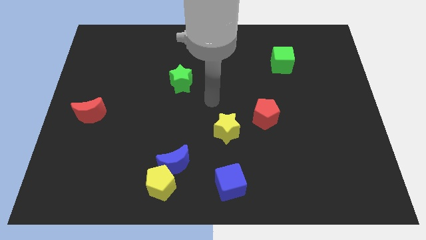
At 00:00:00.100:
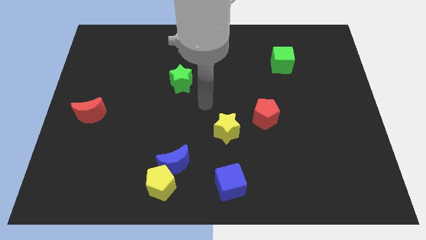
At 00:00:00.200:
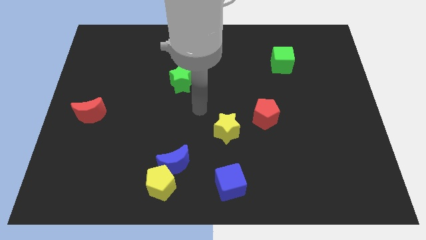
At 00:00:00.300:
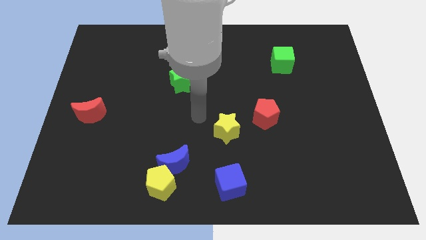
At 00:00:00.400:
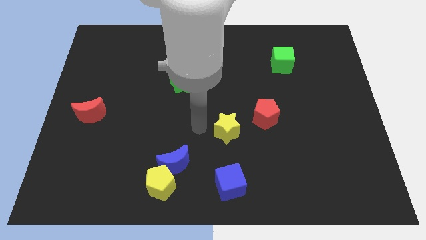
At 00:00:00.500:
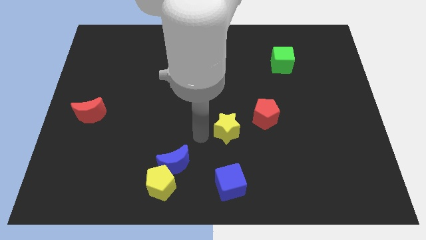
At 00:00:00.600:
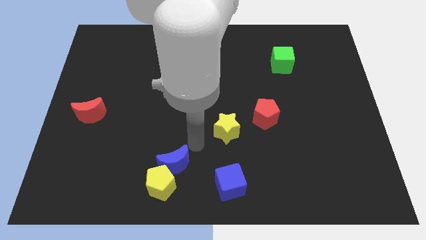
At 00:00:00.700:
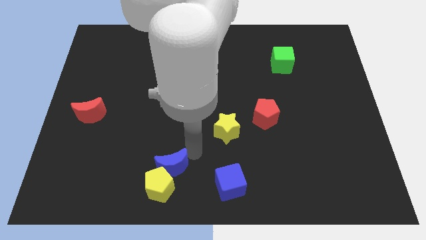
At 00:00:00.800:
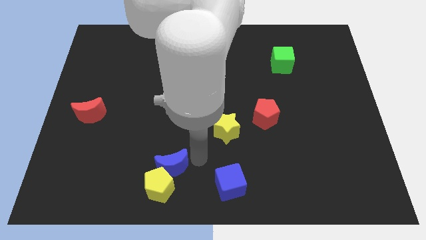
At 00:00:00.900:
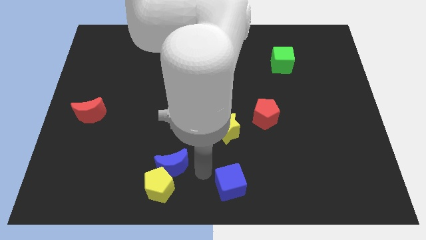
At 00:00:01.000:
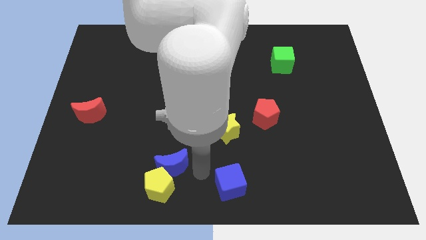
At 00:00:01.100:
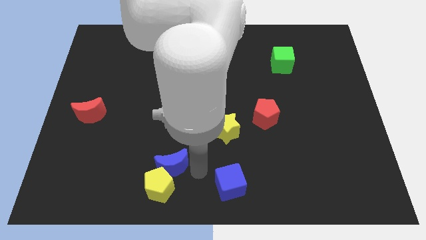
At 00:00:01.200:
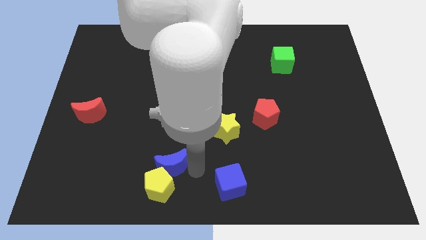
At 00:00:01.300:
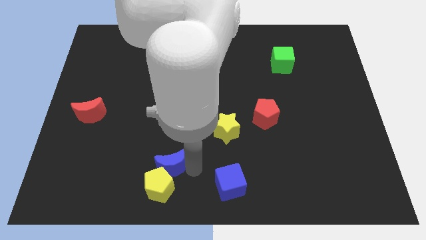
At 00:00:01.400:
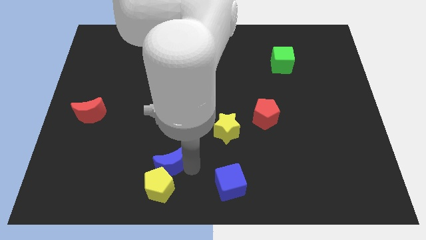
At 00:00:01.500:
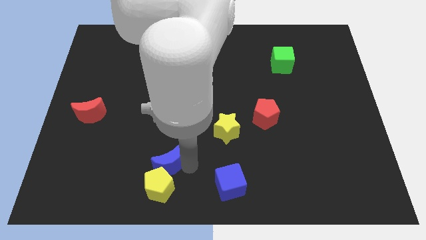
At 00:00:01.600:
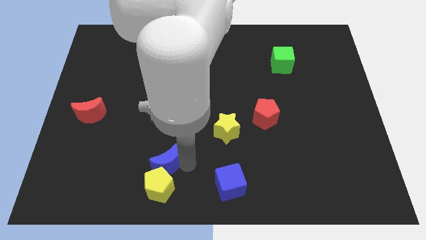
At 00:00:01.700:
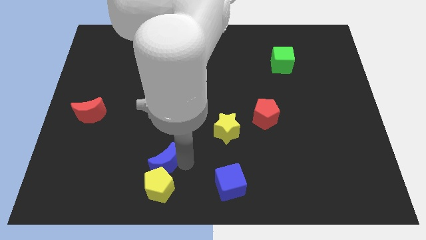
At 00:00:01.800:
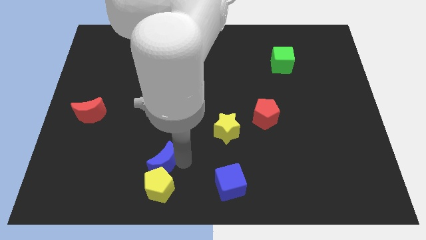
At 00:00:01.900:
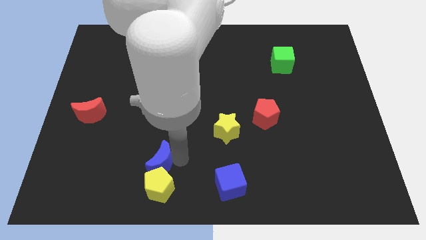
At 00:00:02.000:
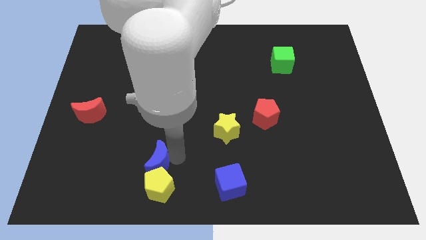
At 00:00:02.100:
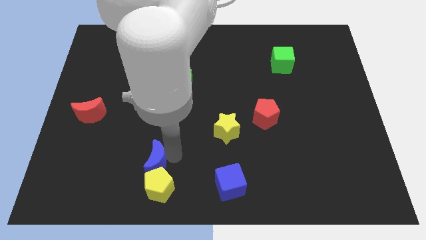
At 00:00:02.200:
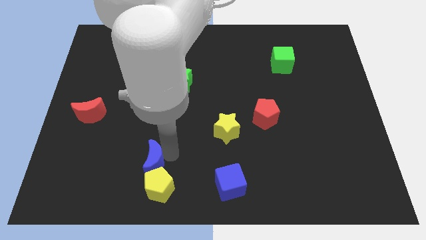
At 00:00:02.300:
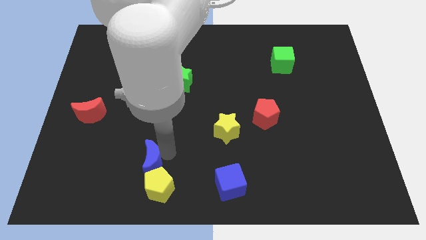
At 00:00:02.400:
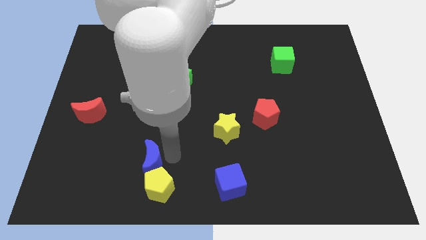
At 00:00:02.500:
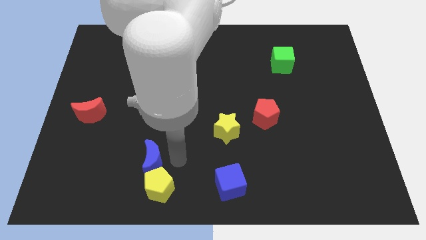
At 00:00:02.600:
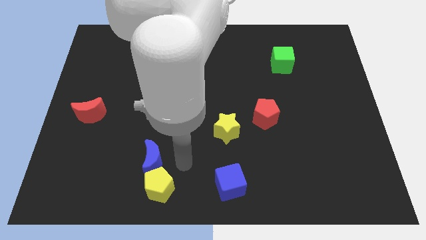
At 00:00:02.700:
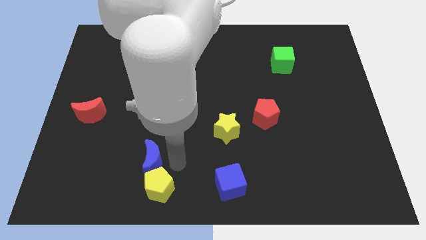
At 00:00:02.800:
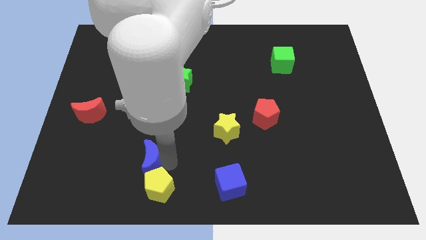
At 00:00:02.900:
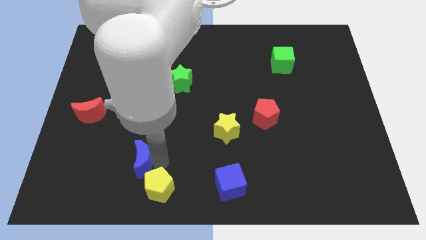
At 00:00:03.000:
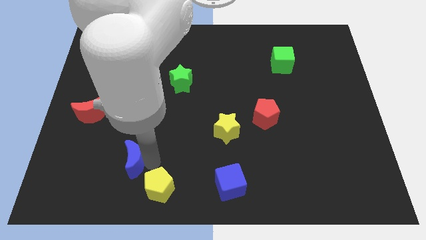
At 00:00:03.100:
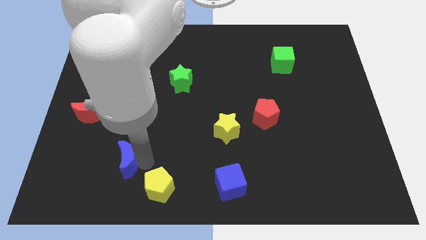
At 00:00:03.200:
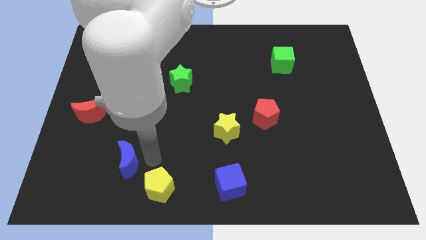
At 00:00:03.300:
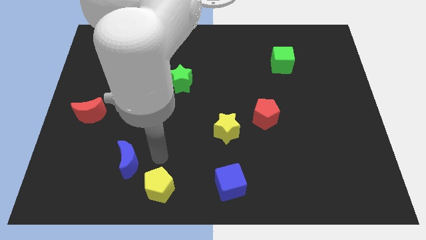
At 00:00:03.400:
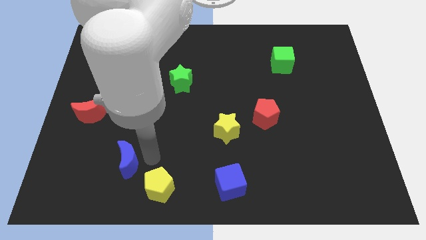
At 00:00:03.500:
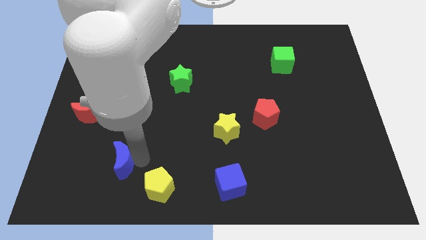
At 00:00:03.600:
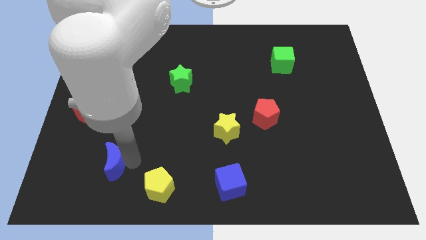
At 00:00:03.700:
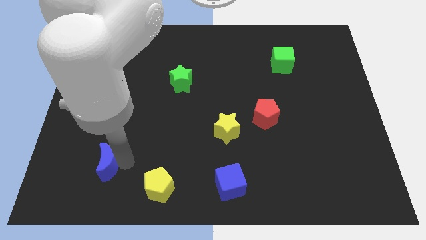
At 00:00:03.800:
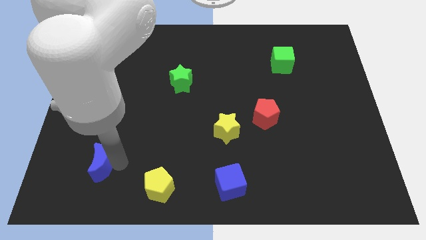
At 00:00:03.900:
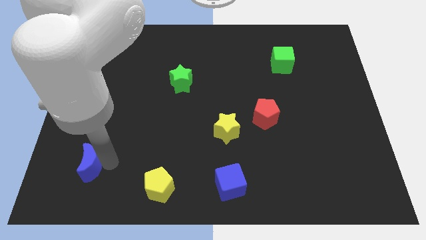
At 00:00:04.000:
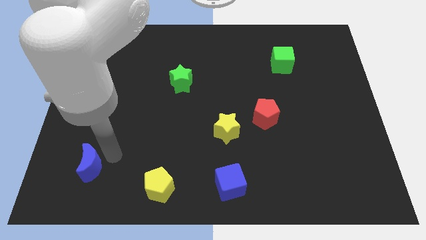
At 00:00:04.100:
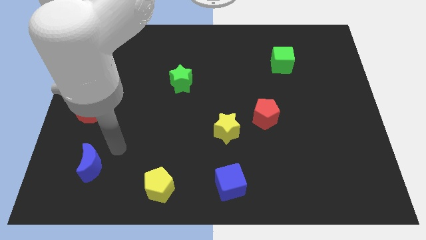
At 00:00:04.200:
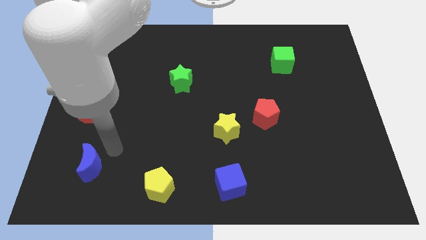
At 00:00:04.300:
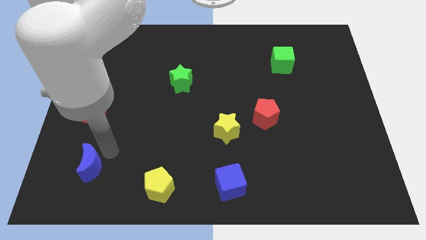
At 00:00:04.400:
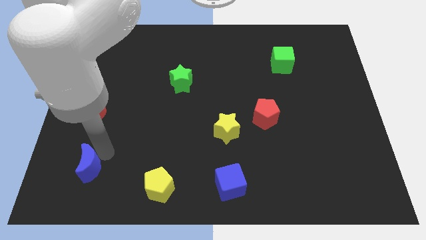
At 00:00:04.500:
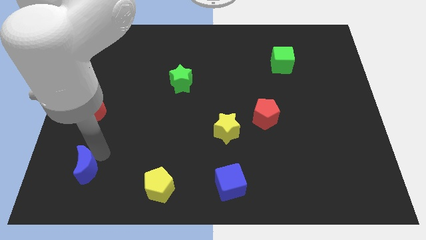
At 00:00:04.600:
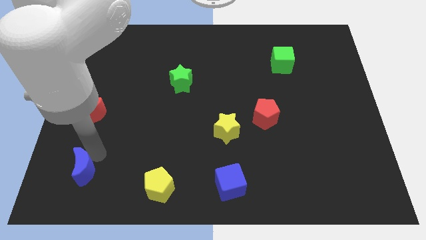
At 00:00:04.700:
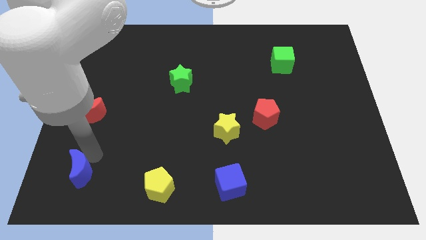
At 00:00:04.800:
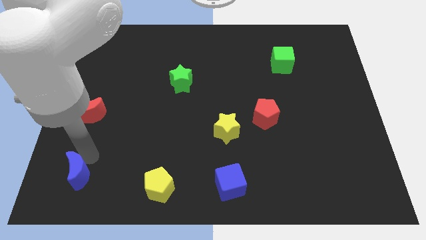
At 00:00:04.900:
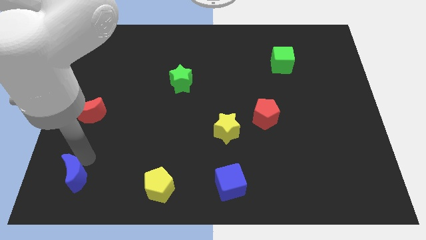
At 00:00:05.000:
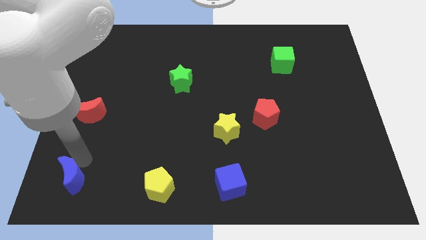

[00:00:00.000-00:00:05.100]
put the blue moon to the bottom left of the board

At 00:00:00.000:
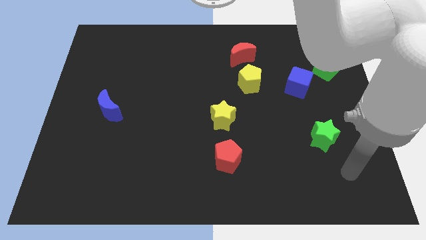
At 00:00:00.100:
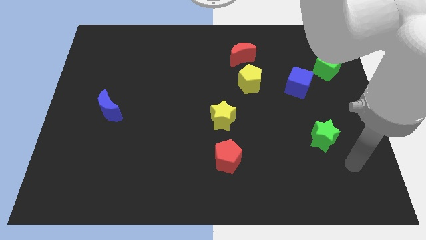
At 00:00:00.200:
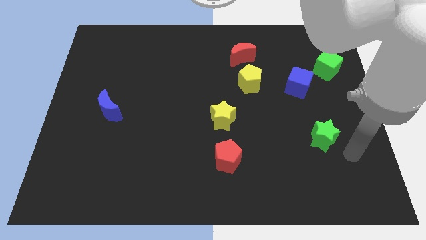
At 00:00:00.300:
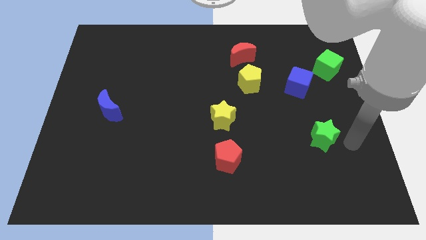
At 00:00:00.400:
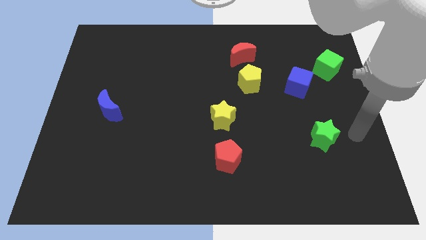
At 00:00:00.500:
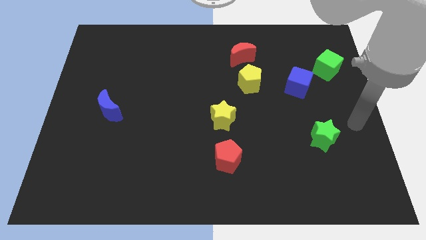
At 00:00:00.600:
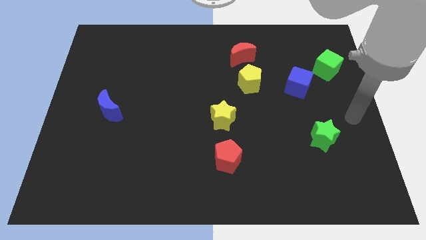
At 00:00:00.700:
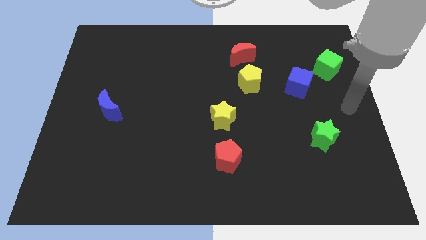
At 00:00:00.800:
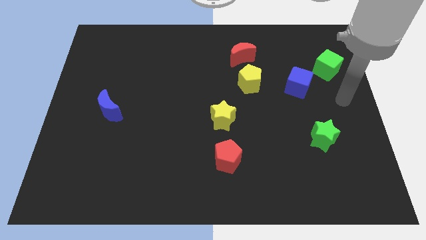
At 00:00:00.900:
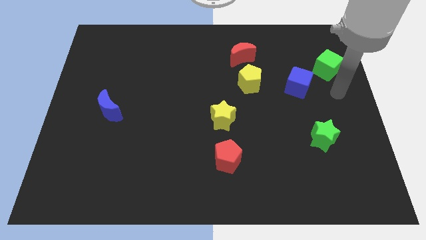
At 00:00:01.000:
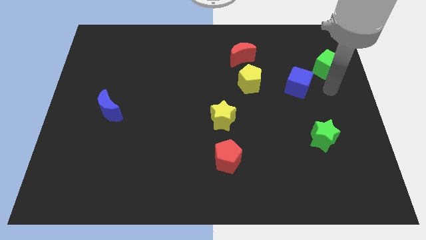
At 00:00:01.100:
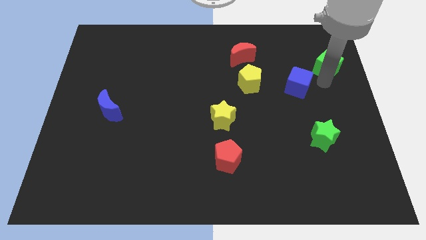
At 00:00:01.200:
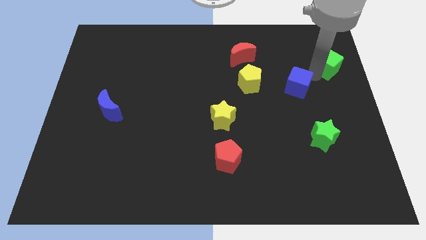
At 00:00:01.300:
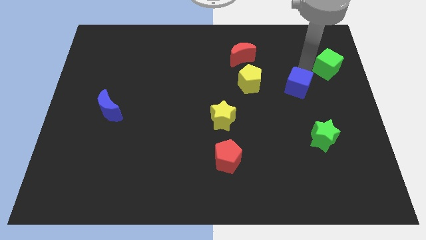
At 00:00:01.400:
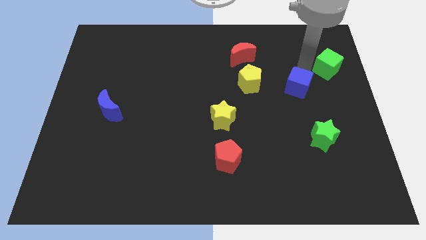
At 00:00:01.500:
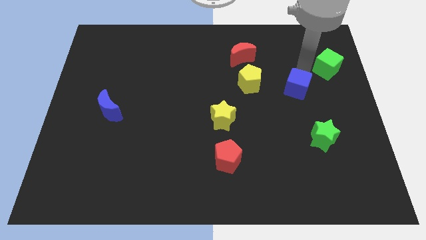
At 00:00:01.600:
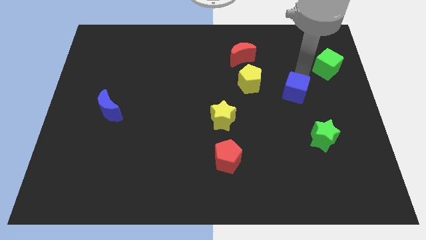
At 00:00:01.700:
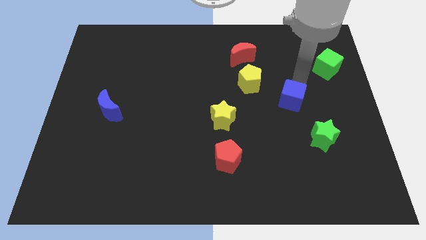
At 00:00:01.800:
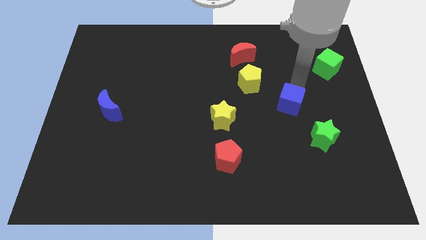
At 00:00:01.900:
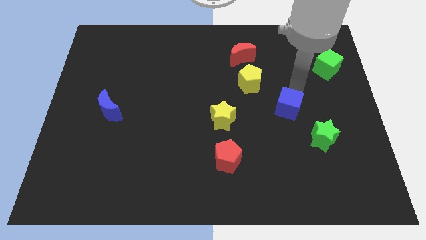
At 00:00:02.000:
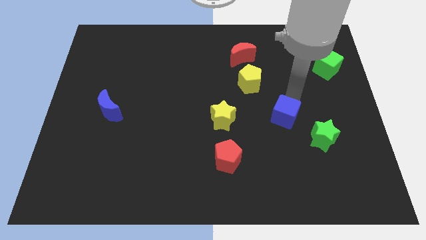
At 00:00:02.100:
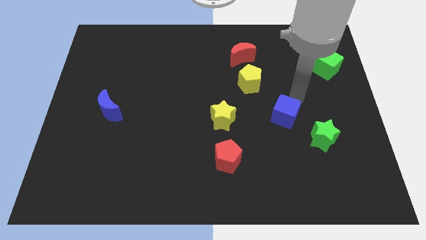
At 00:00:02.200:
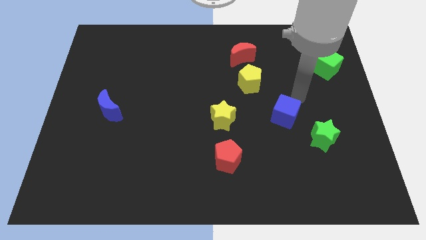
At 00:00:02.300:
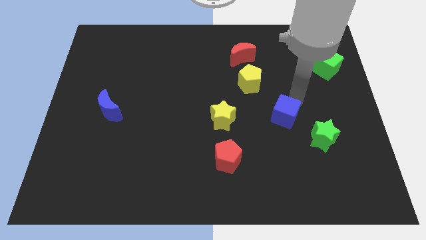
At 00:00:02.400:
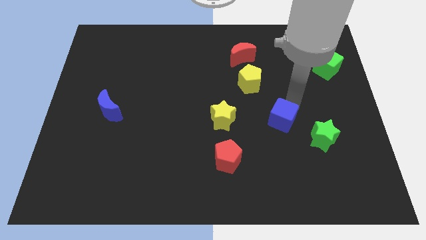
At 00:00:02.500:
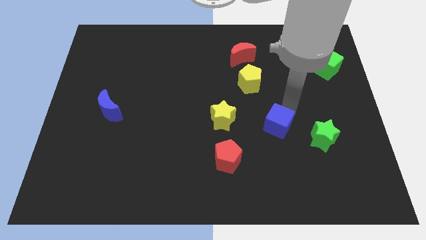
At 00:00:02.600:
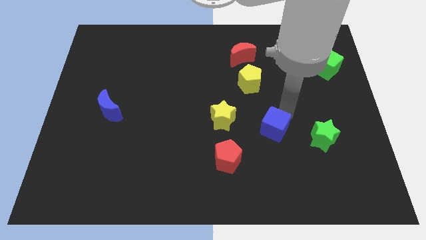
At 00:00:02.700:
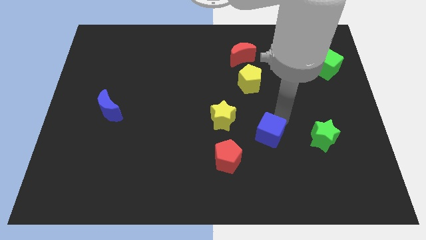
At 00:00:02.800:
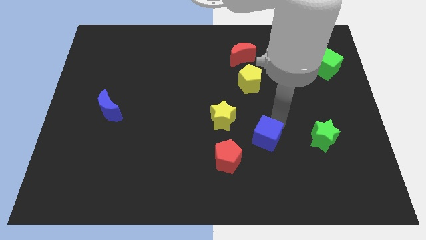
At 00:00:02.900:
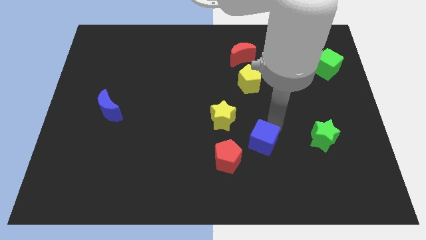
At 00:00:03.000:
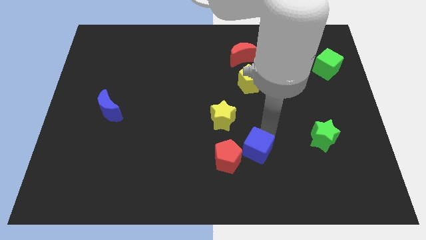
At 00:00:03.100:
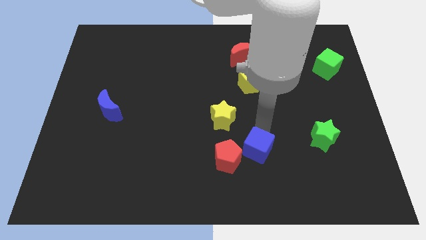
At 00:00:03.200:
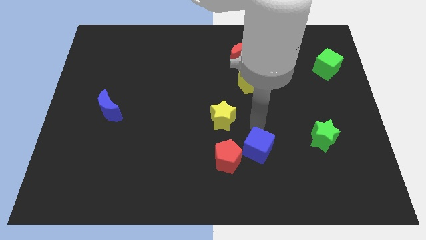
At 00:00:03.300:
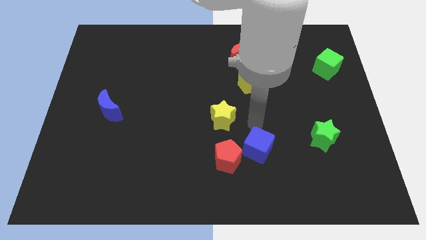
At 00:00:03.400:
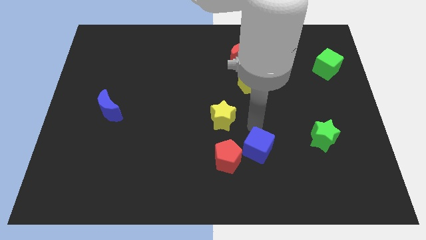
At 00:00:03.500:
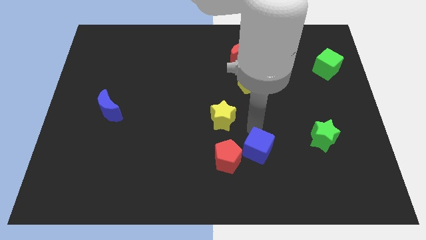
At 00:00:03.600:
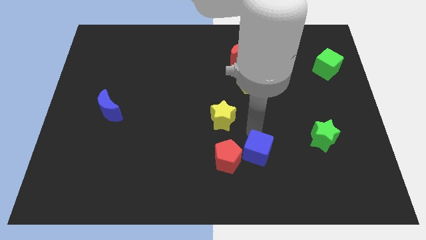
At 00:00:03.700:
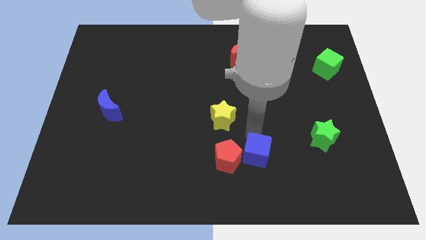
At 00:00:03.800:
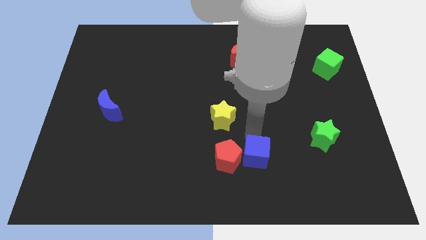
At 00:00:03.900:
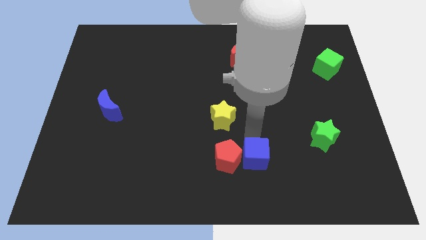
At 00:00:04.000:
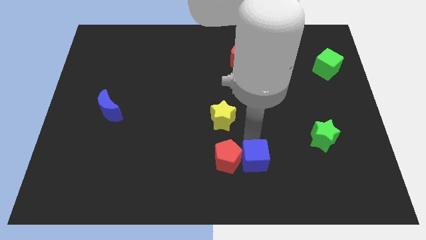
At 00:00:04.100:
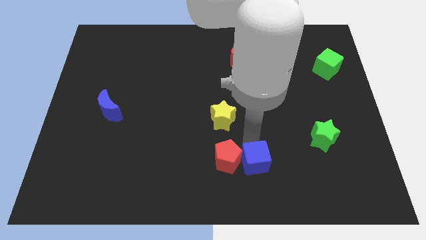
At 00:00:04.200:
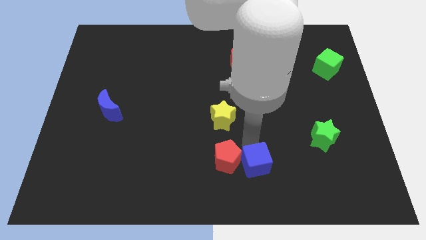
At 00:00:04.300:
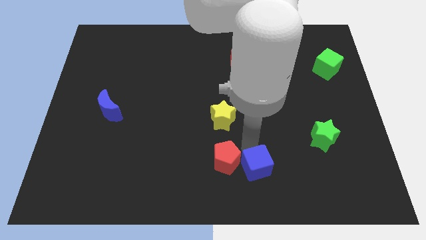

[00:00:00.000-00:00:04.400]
slide the blue cube to the bottom side
